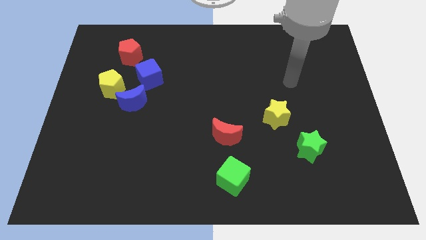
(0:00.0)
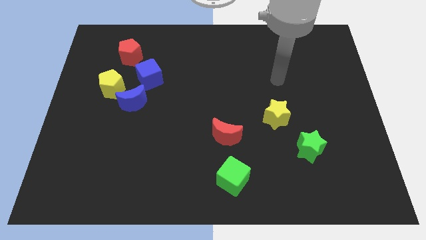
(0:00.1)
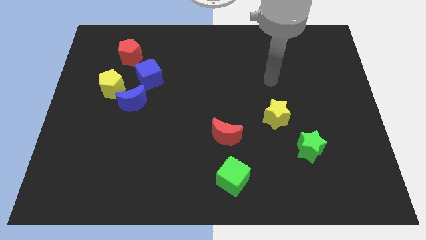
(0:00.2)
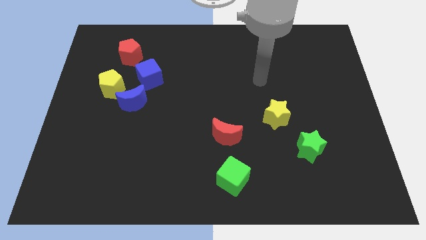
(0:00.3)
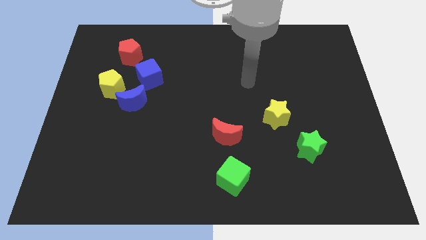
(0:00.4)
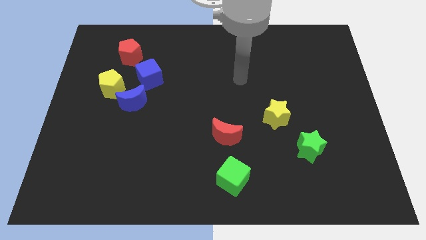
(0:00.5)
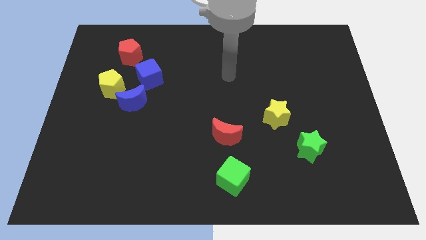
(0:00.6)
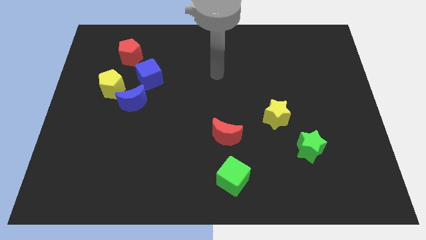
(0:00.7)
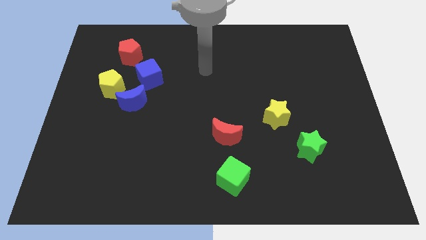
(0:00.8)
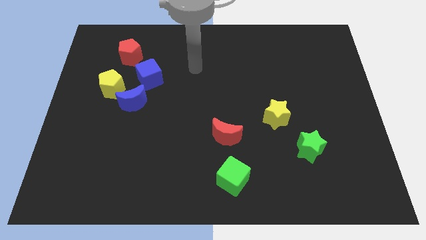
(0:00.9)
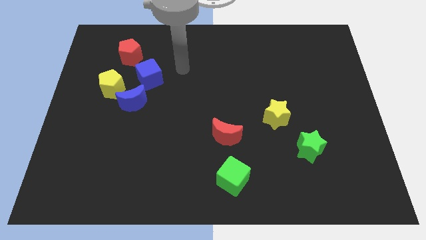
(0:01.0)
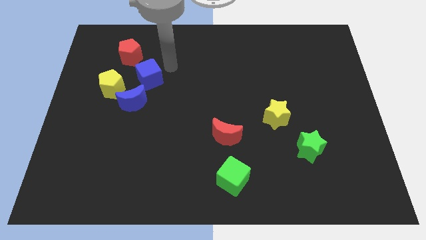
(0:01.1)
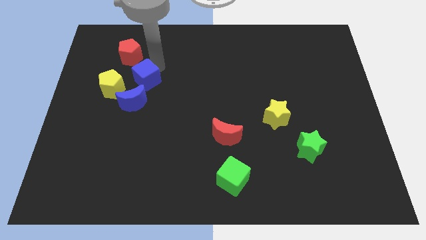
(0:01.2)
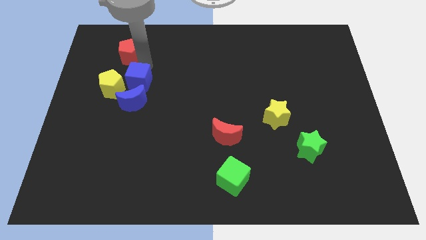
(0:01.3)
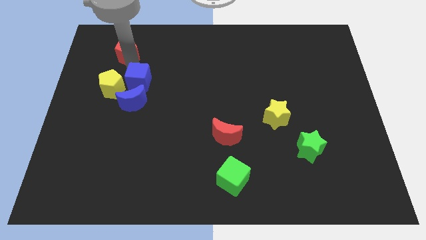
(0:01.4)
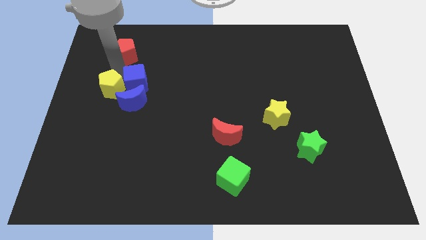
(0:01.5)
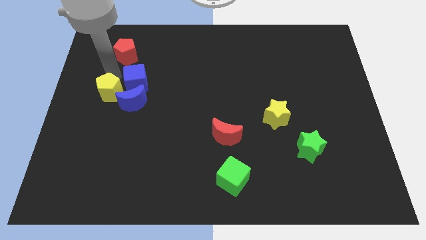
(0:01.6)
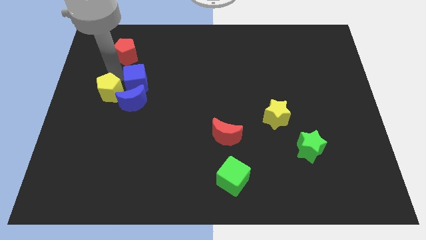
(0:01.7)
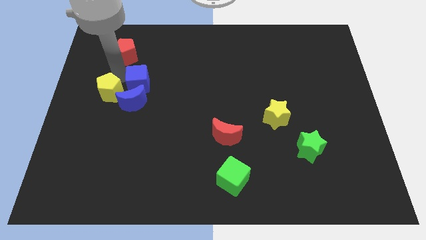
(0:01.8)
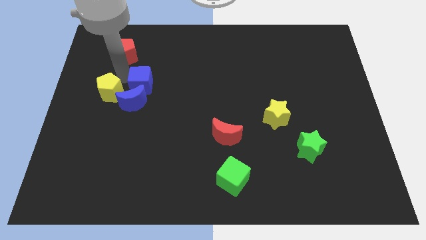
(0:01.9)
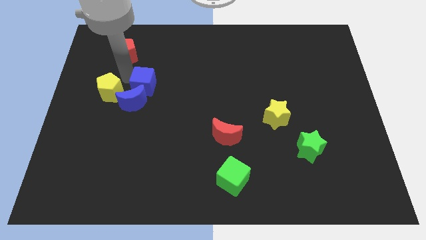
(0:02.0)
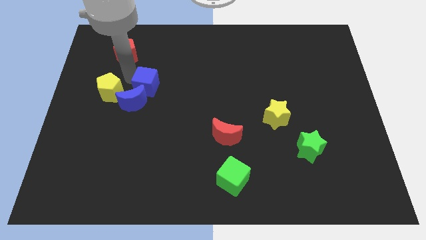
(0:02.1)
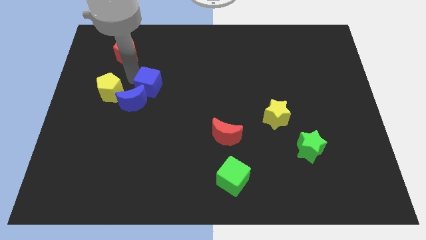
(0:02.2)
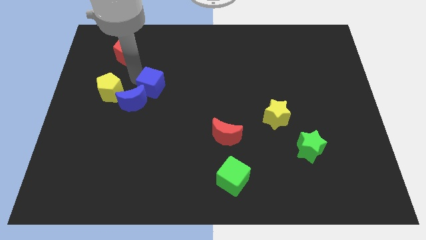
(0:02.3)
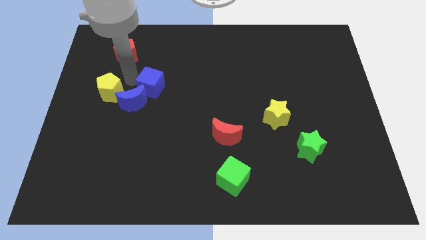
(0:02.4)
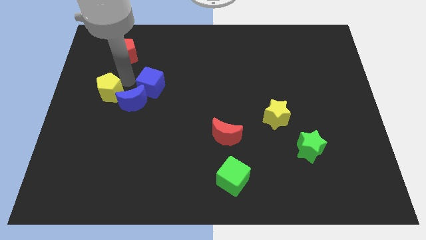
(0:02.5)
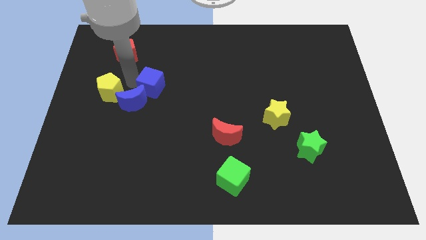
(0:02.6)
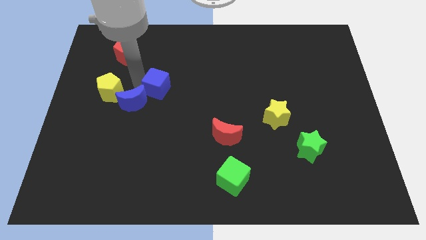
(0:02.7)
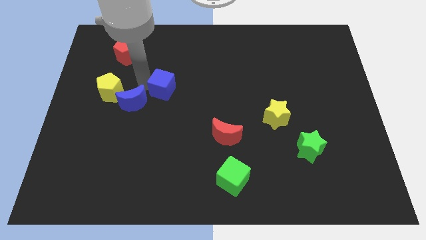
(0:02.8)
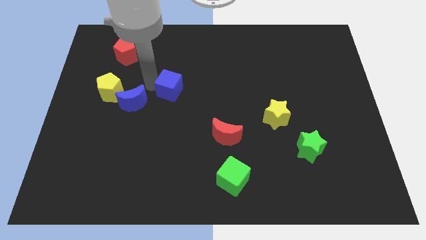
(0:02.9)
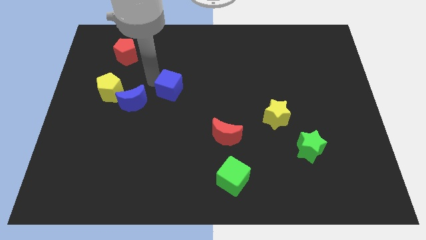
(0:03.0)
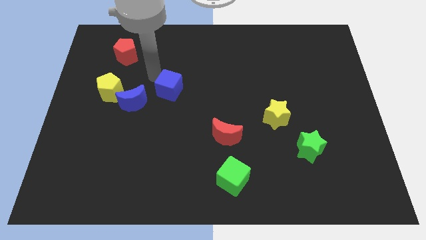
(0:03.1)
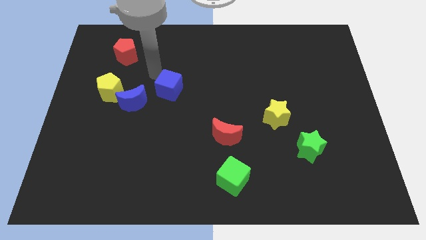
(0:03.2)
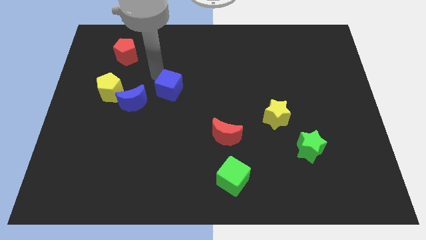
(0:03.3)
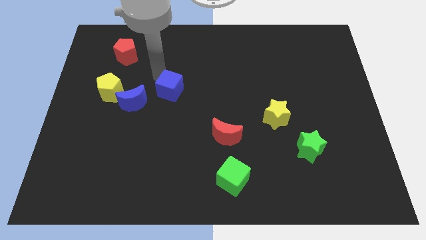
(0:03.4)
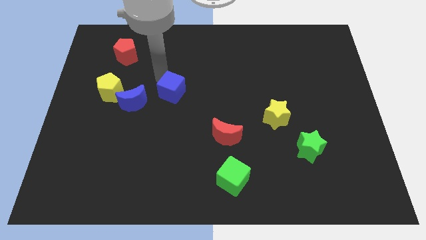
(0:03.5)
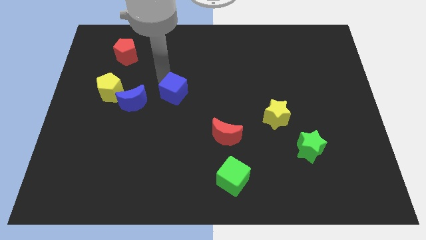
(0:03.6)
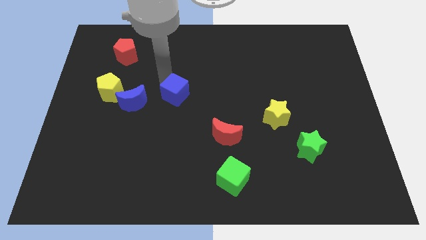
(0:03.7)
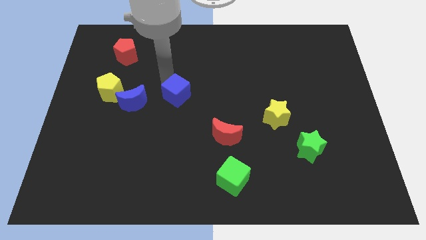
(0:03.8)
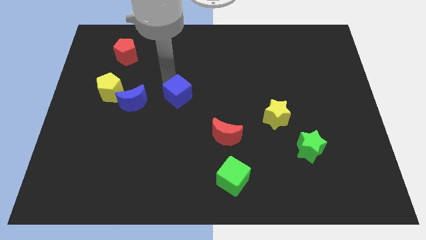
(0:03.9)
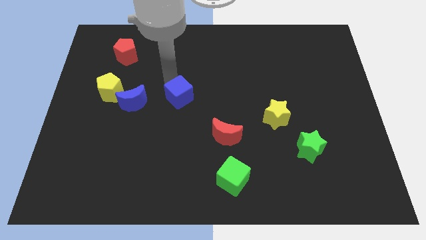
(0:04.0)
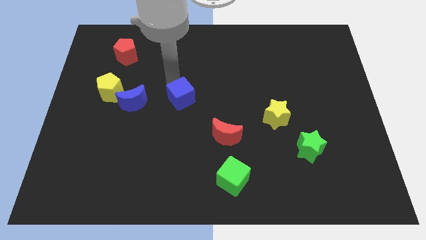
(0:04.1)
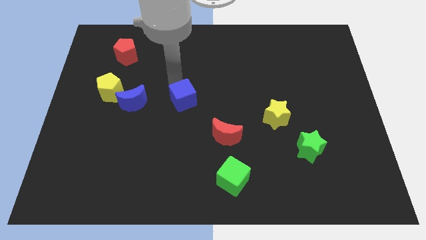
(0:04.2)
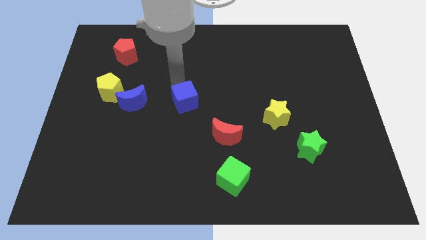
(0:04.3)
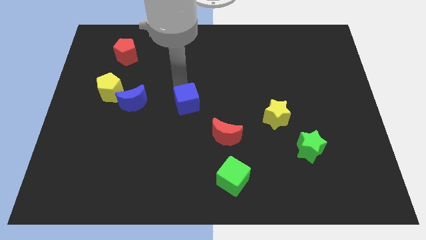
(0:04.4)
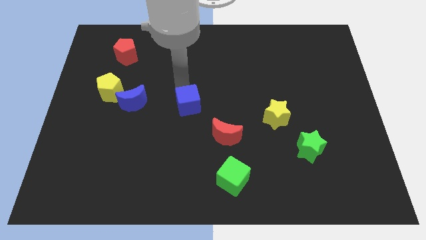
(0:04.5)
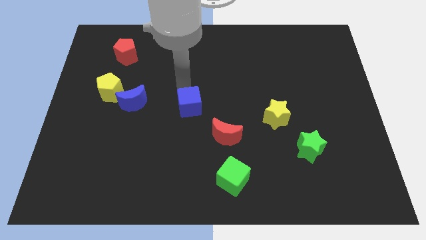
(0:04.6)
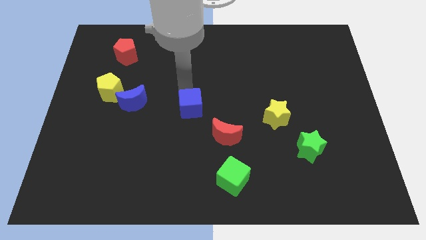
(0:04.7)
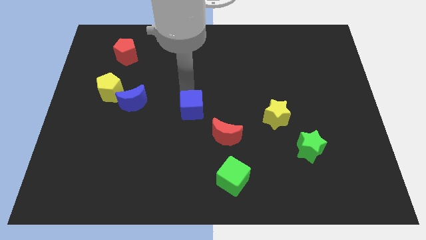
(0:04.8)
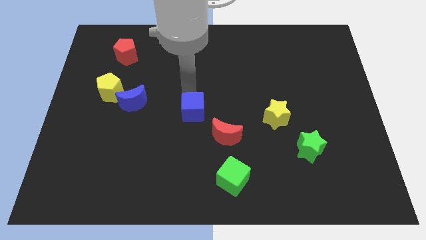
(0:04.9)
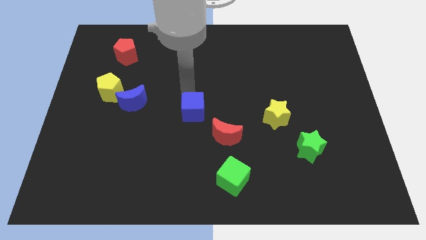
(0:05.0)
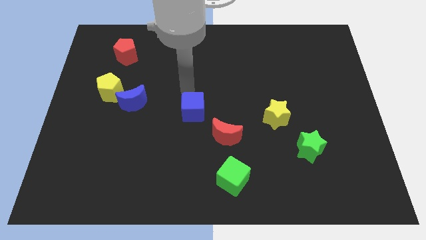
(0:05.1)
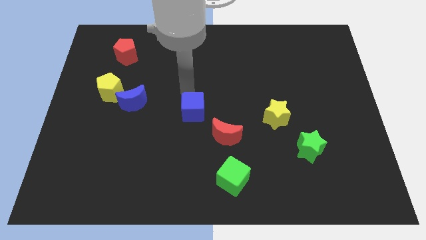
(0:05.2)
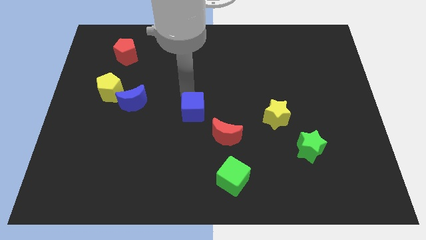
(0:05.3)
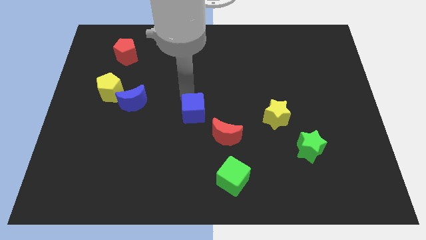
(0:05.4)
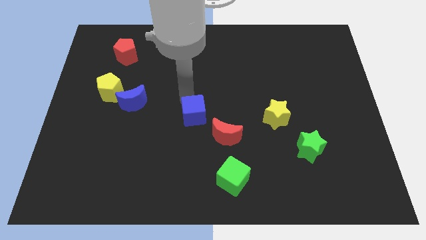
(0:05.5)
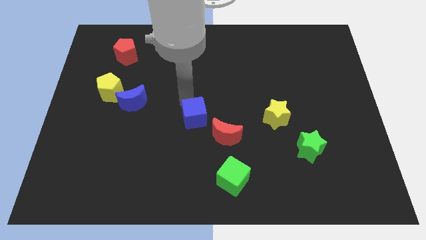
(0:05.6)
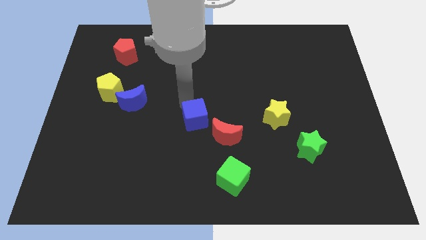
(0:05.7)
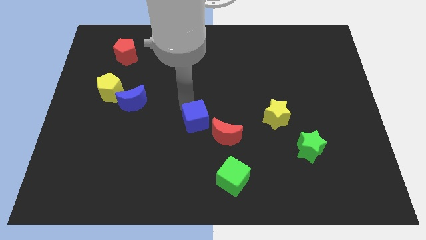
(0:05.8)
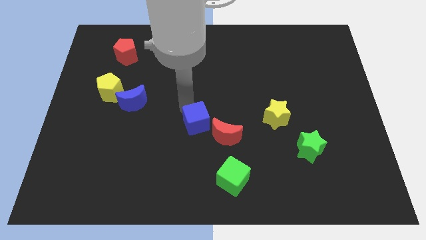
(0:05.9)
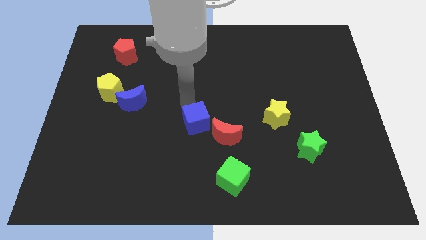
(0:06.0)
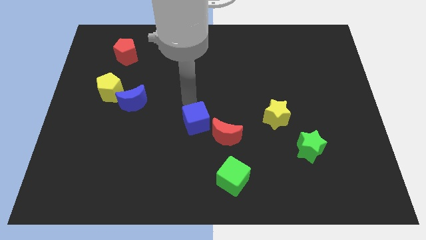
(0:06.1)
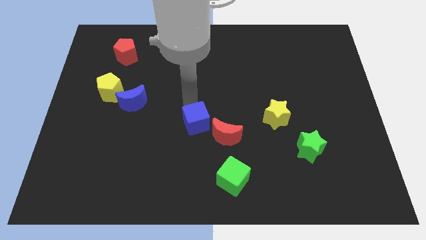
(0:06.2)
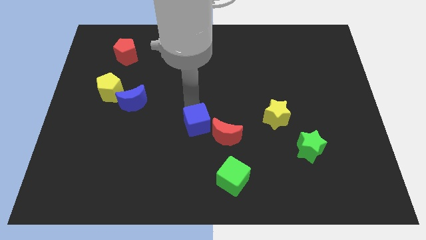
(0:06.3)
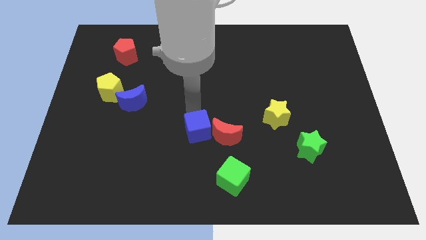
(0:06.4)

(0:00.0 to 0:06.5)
slide the blue cube down and then to the right

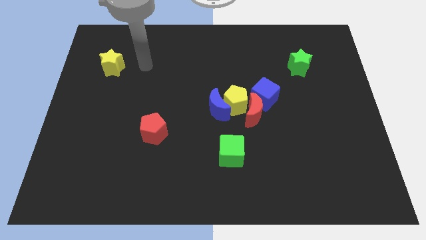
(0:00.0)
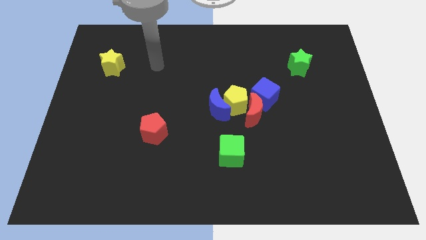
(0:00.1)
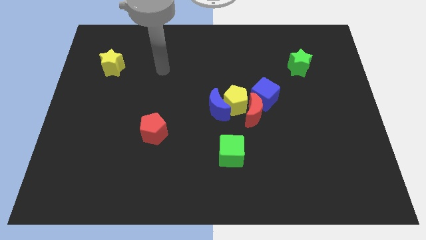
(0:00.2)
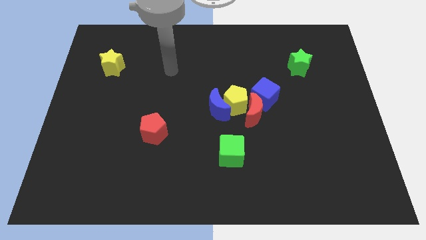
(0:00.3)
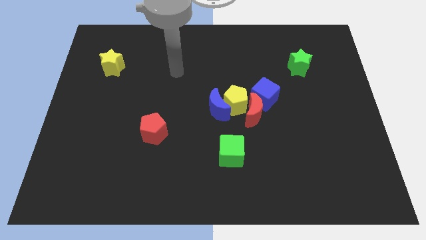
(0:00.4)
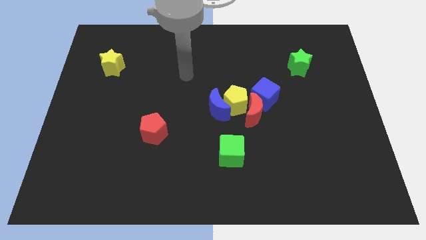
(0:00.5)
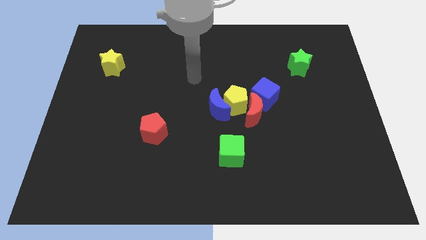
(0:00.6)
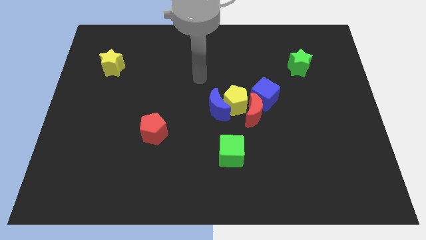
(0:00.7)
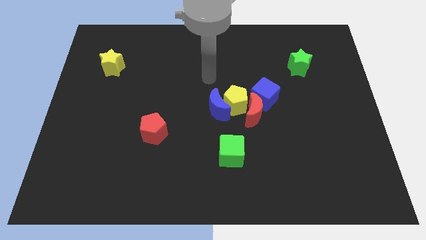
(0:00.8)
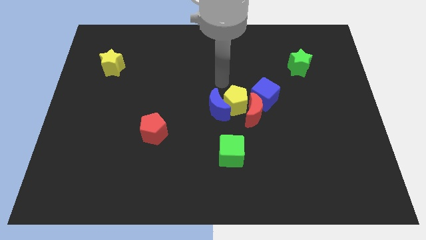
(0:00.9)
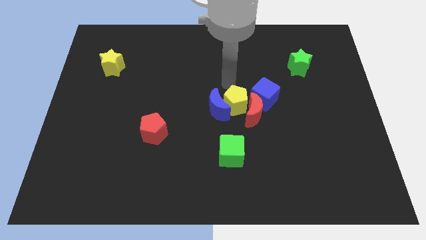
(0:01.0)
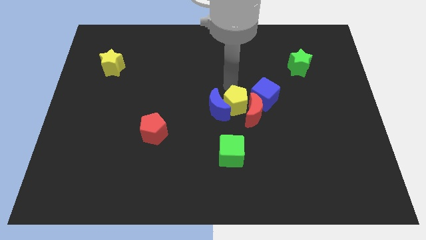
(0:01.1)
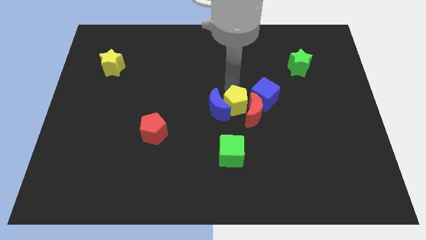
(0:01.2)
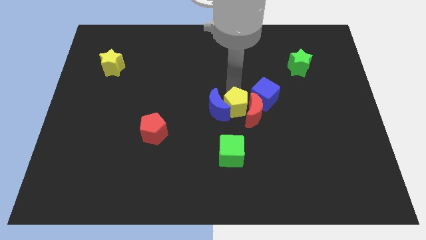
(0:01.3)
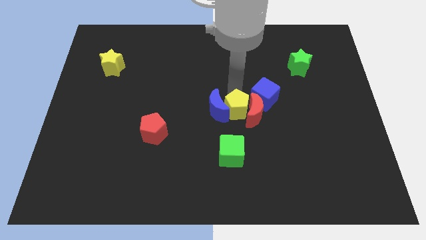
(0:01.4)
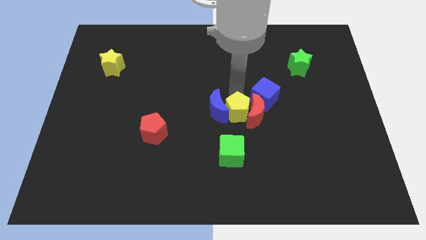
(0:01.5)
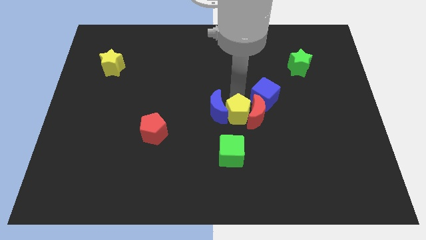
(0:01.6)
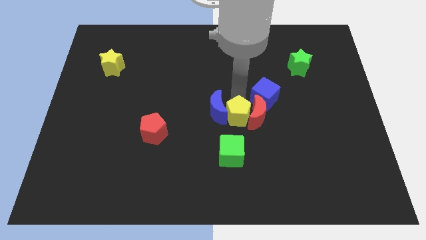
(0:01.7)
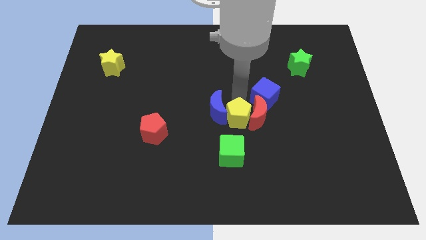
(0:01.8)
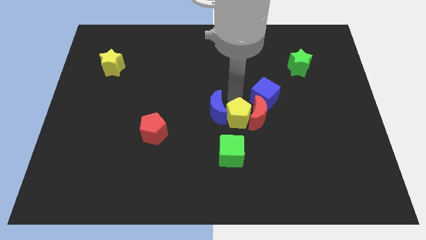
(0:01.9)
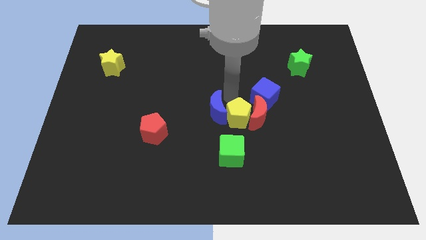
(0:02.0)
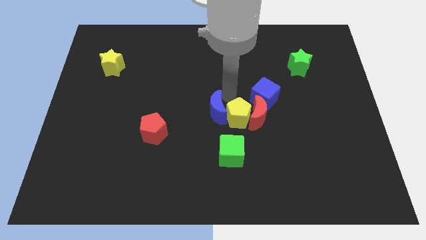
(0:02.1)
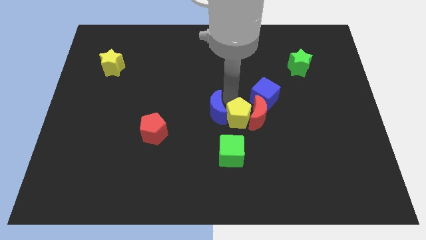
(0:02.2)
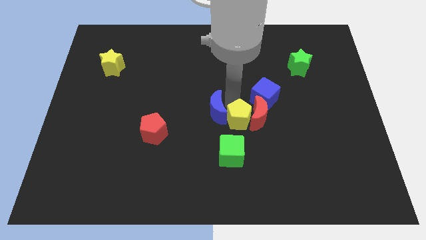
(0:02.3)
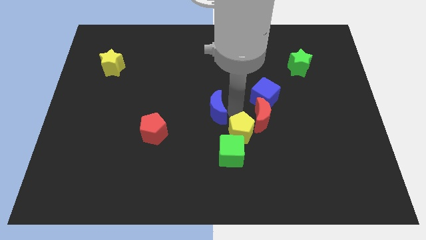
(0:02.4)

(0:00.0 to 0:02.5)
slide the yellow pentagon a little bit downwards
